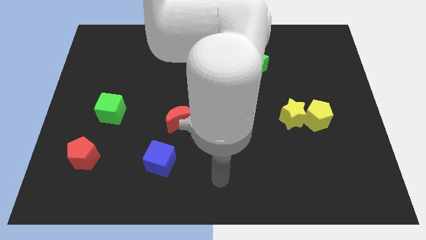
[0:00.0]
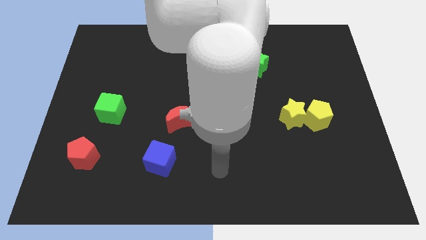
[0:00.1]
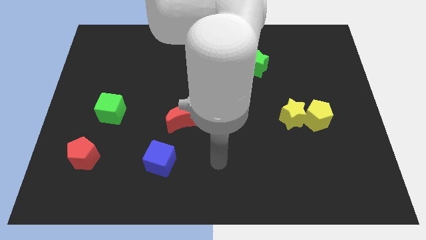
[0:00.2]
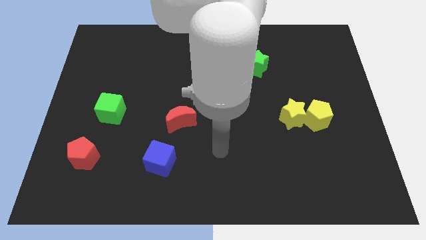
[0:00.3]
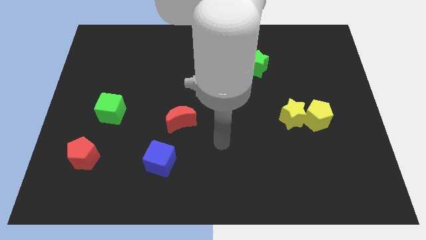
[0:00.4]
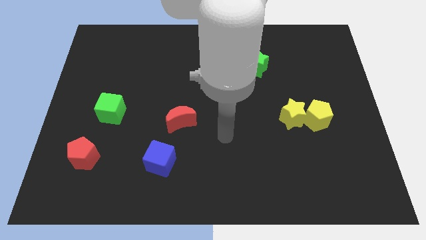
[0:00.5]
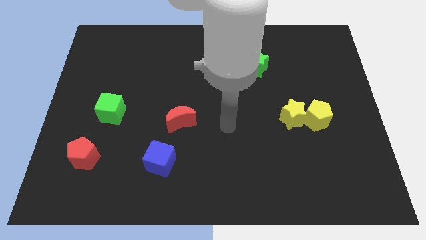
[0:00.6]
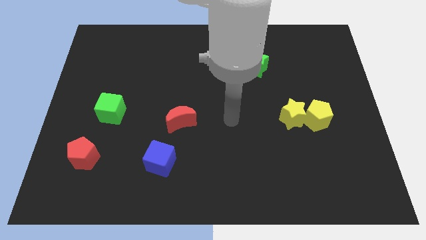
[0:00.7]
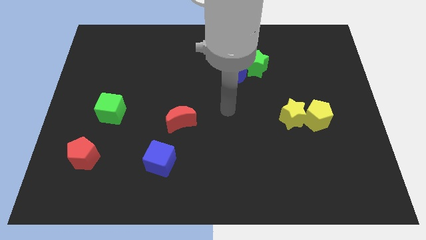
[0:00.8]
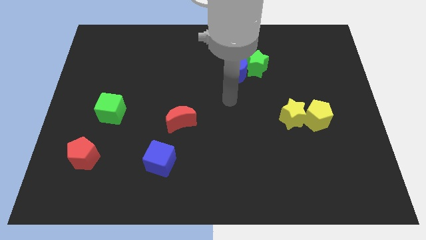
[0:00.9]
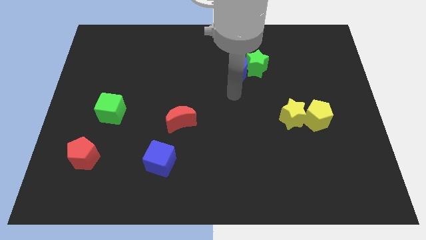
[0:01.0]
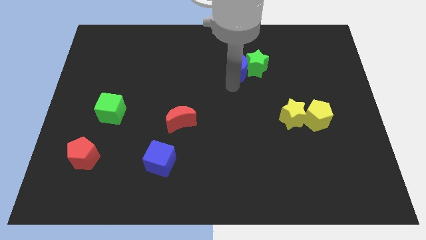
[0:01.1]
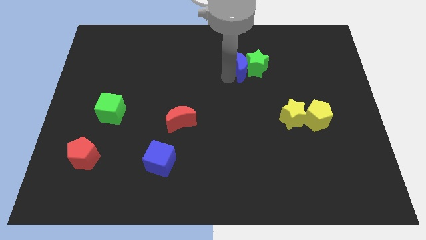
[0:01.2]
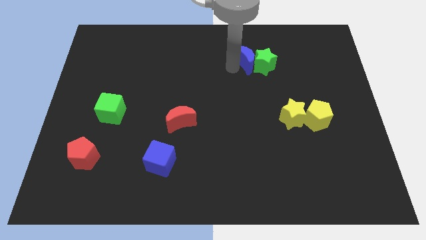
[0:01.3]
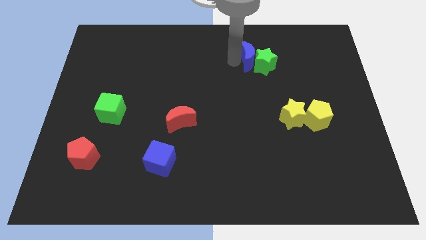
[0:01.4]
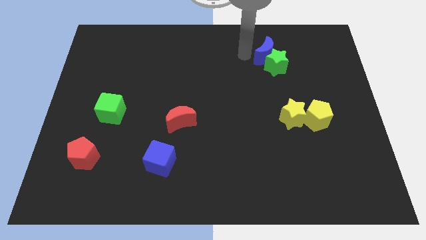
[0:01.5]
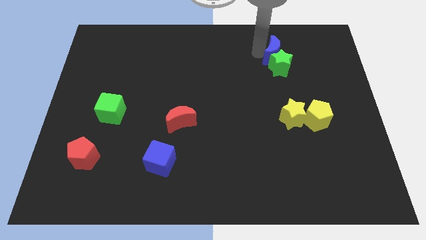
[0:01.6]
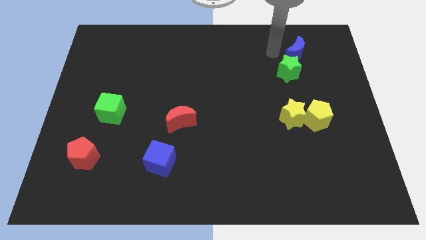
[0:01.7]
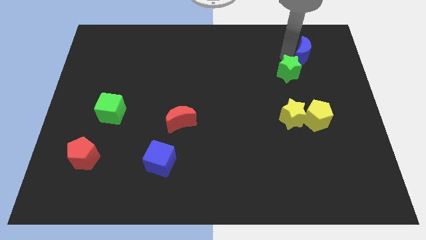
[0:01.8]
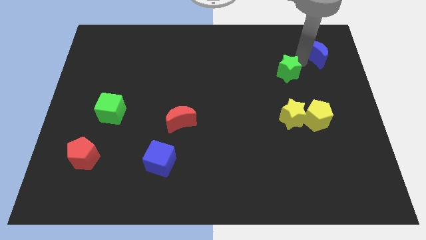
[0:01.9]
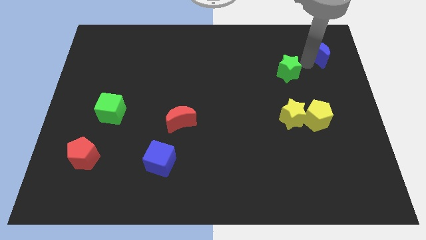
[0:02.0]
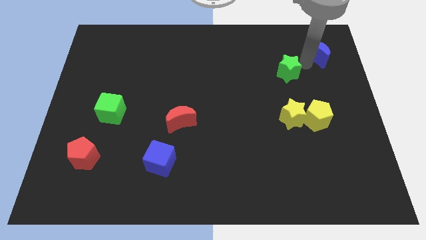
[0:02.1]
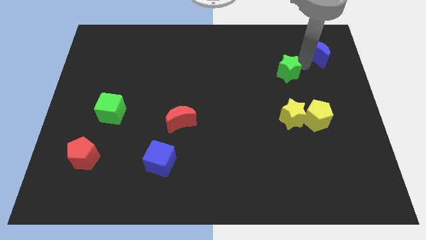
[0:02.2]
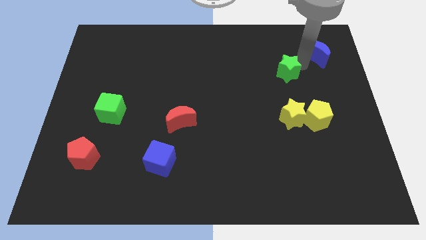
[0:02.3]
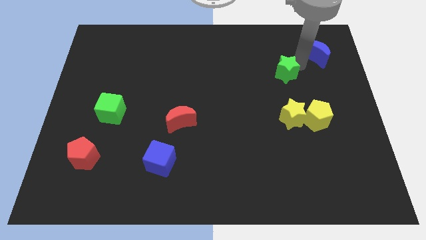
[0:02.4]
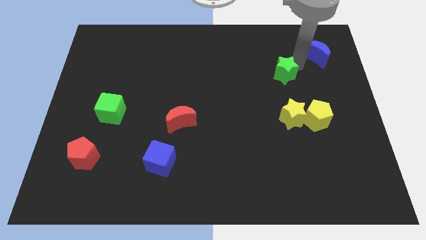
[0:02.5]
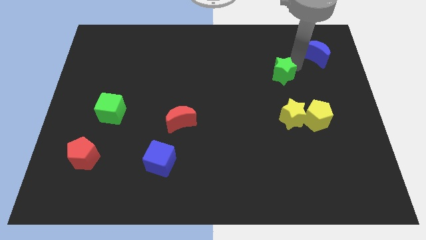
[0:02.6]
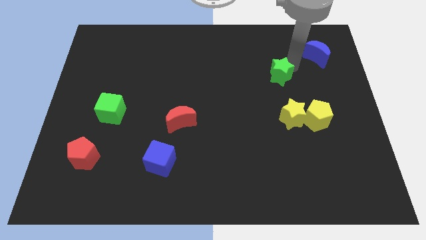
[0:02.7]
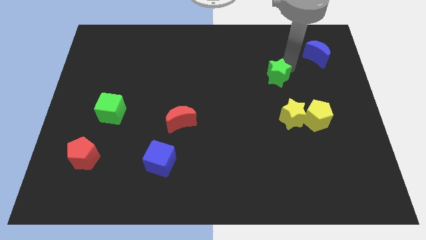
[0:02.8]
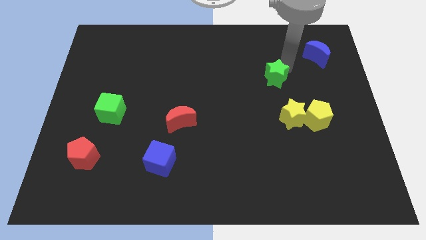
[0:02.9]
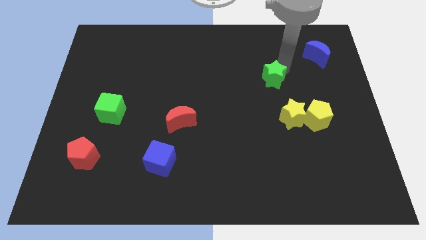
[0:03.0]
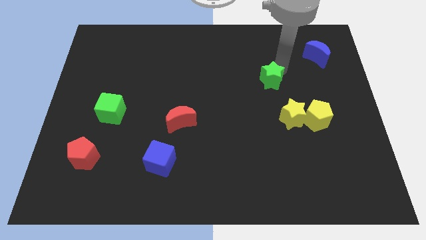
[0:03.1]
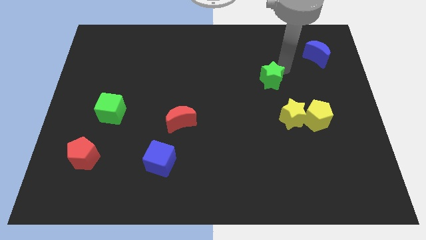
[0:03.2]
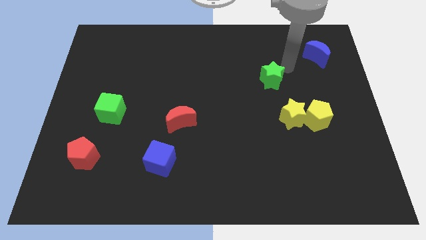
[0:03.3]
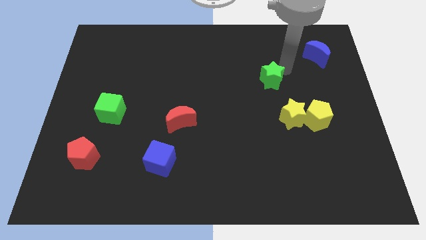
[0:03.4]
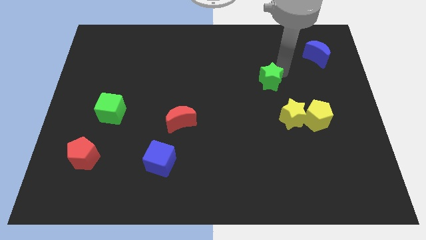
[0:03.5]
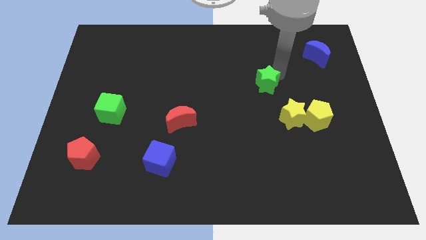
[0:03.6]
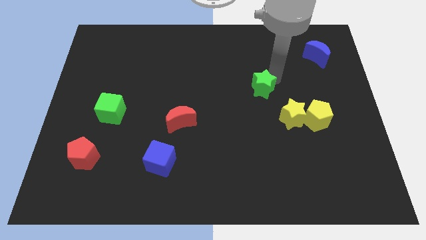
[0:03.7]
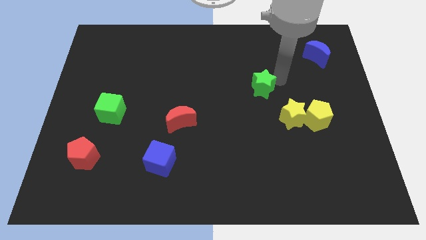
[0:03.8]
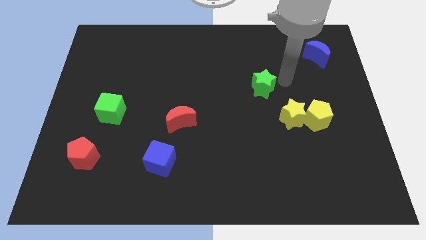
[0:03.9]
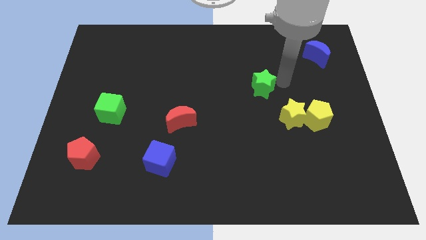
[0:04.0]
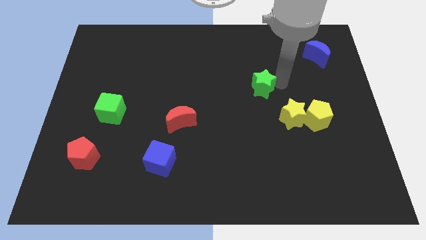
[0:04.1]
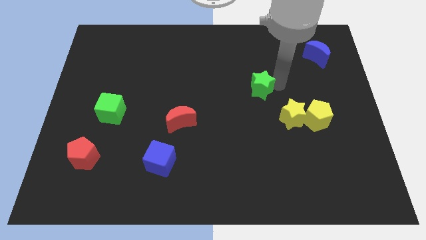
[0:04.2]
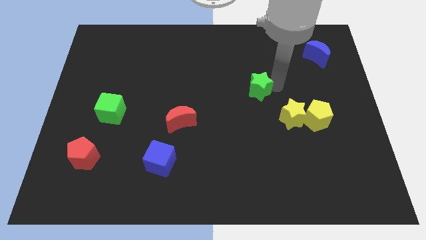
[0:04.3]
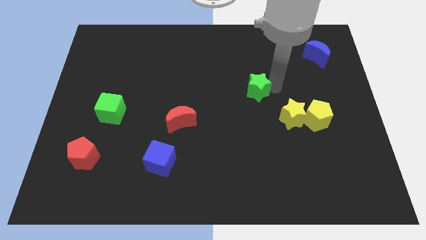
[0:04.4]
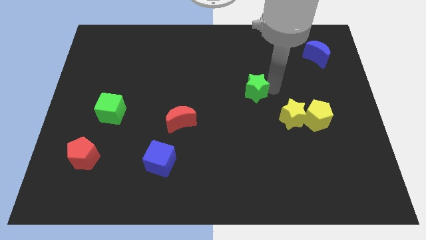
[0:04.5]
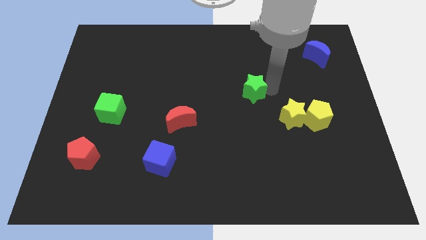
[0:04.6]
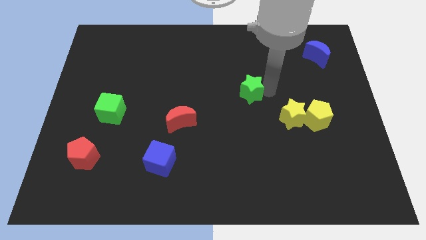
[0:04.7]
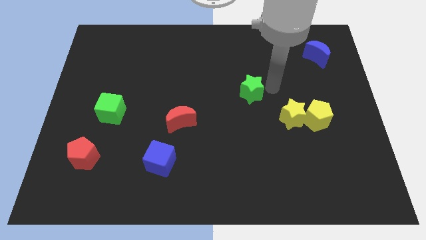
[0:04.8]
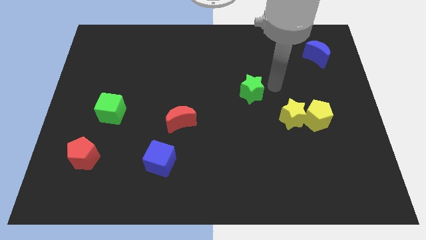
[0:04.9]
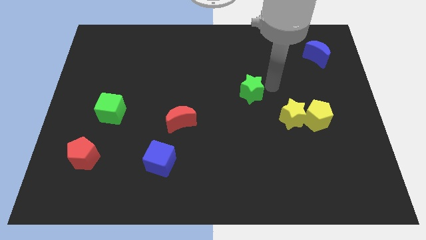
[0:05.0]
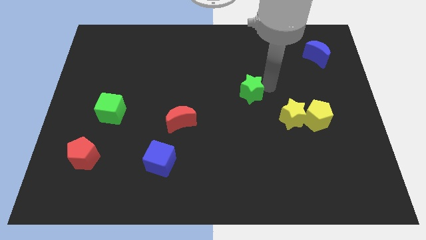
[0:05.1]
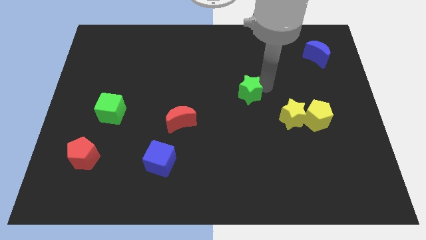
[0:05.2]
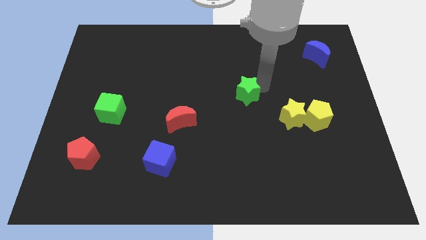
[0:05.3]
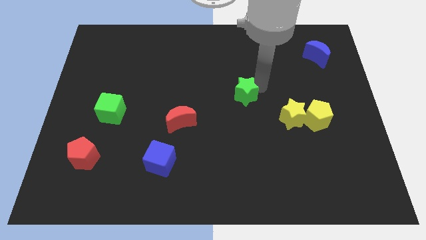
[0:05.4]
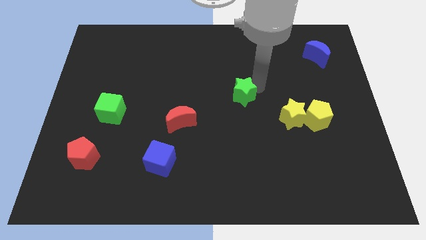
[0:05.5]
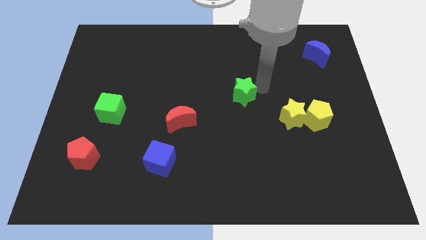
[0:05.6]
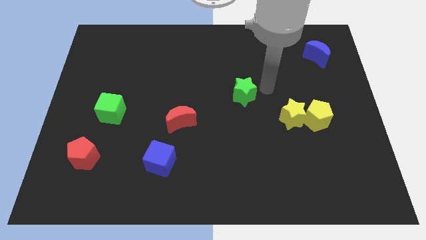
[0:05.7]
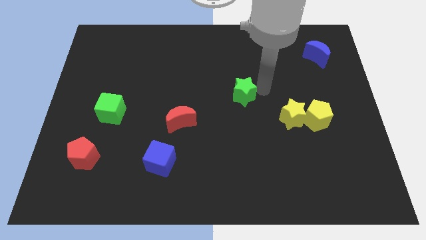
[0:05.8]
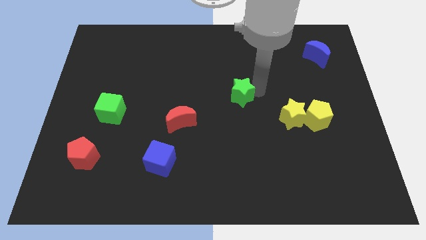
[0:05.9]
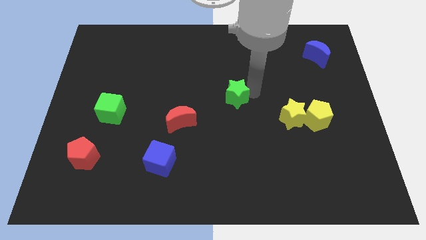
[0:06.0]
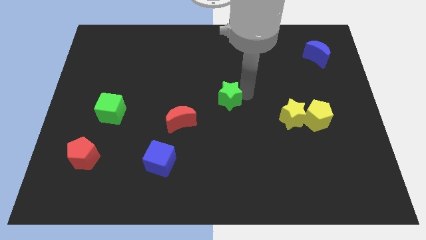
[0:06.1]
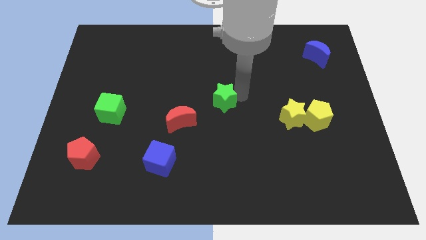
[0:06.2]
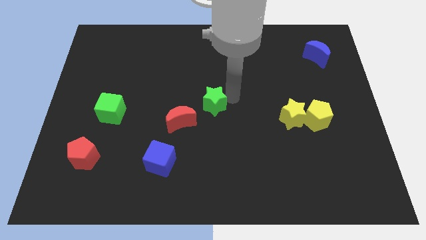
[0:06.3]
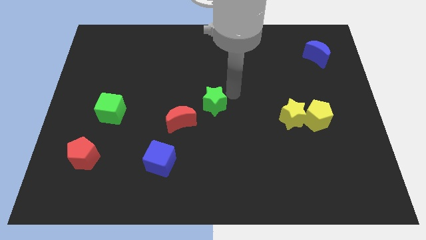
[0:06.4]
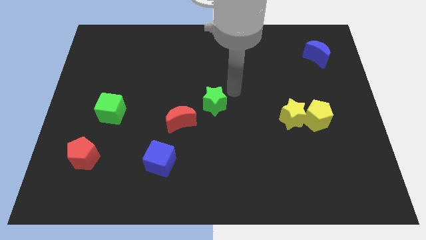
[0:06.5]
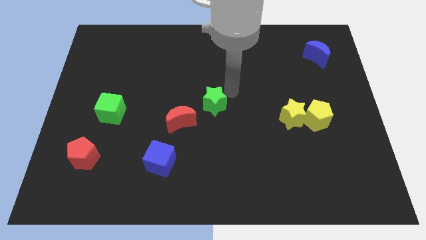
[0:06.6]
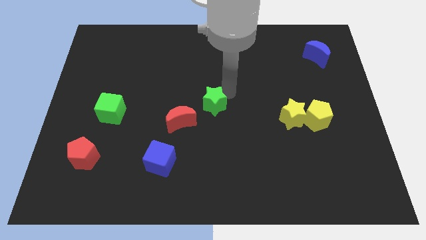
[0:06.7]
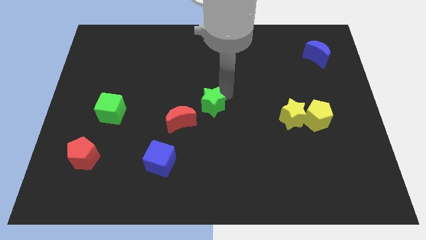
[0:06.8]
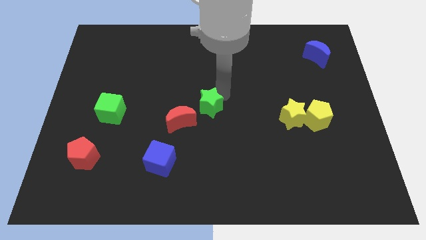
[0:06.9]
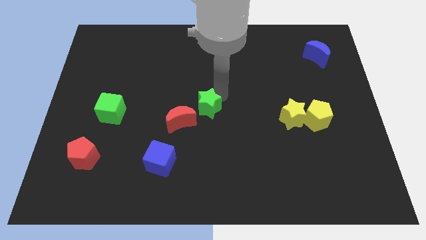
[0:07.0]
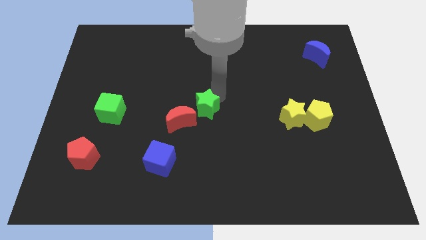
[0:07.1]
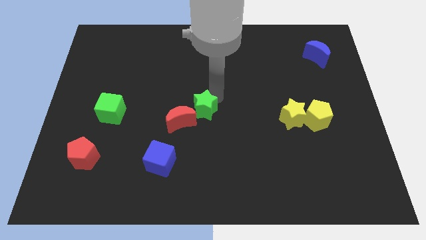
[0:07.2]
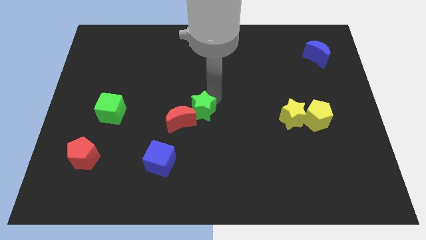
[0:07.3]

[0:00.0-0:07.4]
slide the green star close to the red moon
